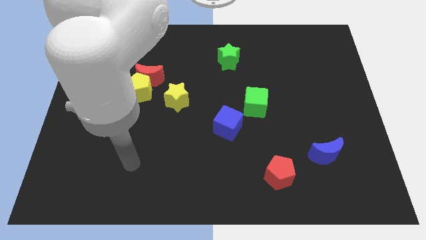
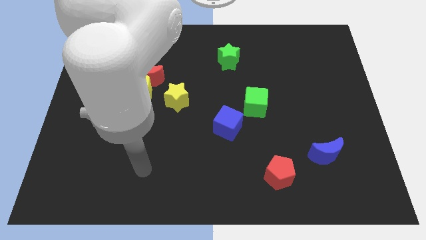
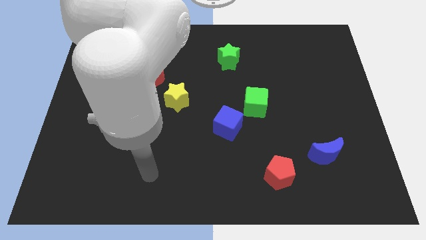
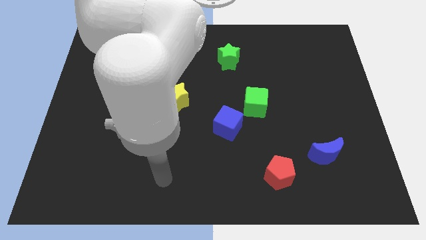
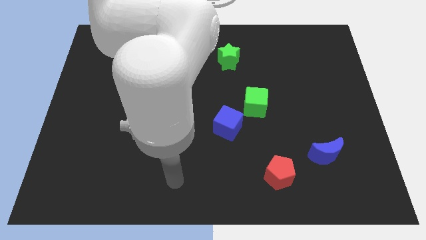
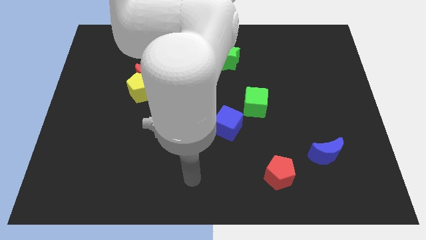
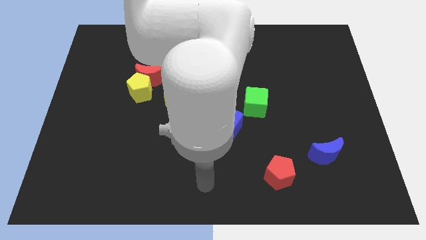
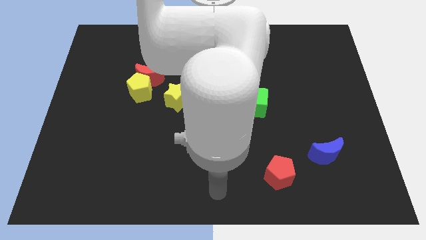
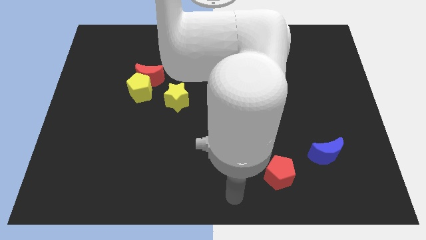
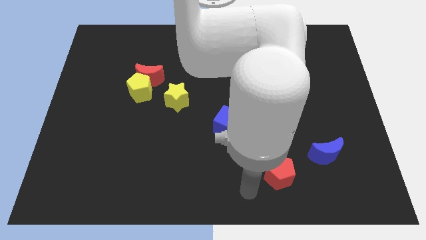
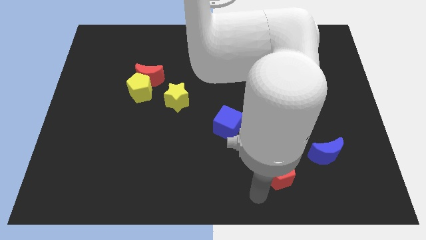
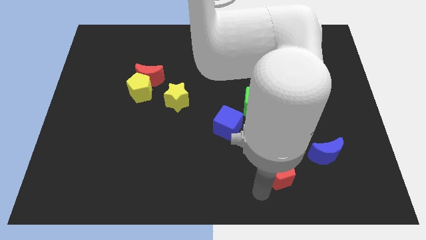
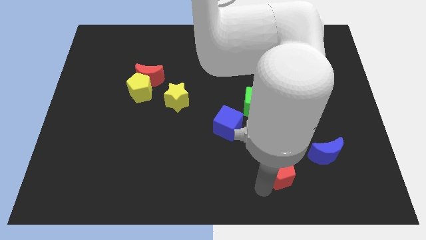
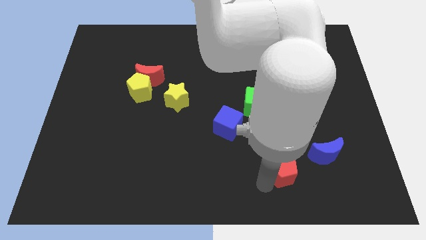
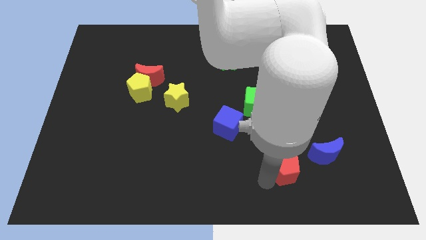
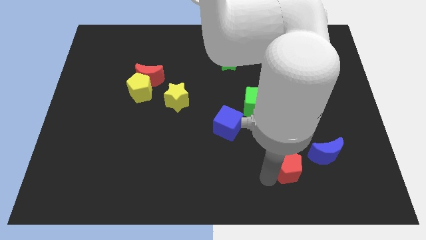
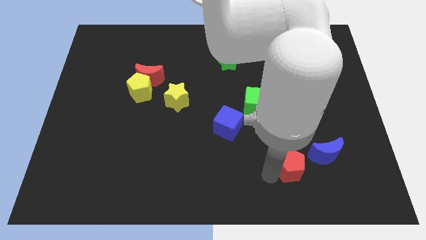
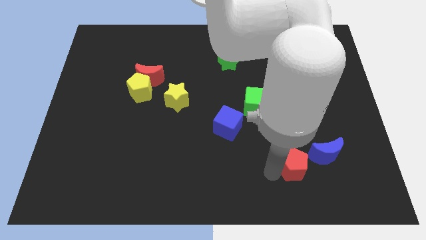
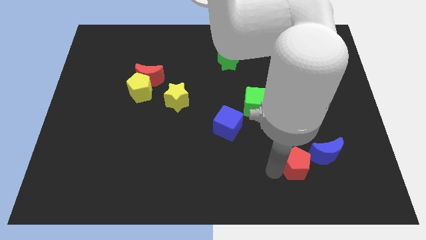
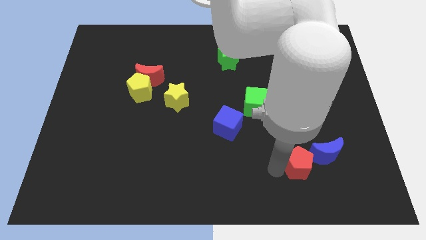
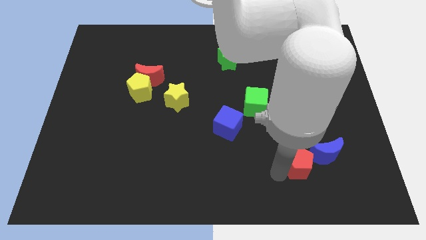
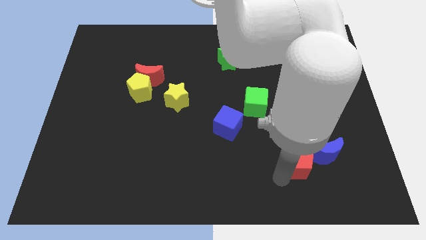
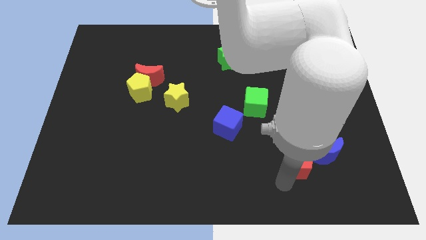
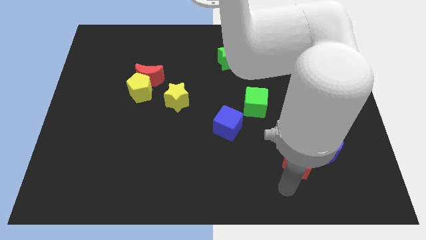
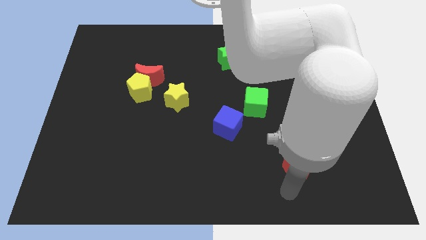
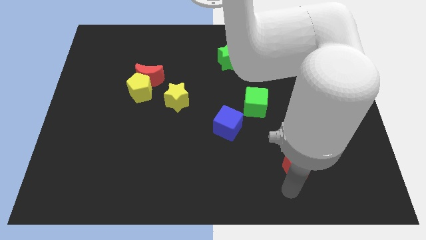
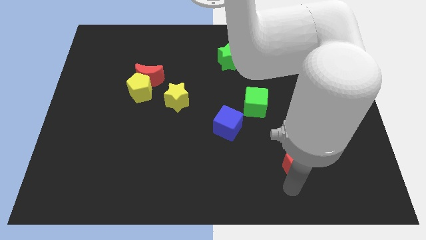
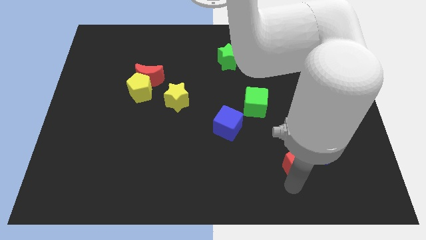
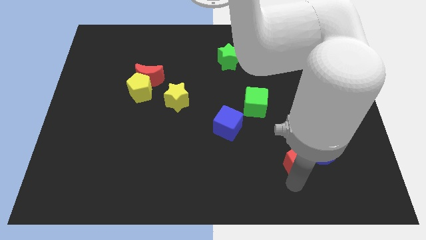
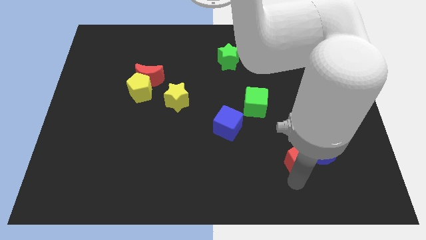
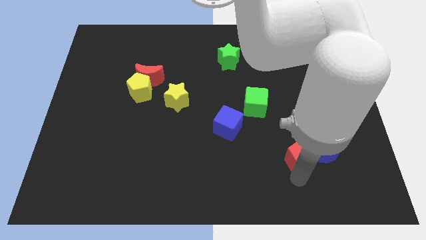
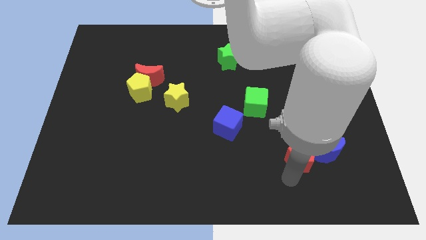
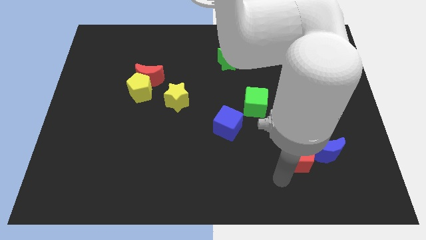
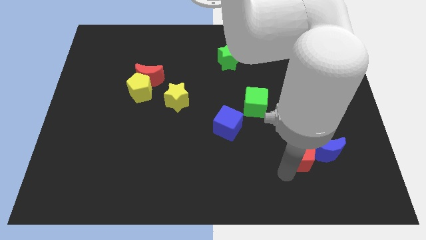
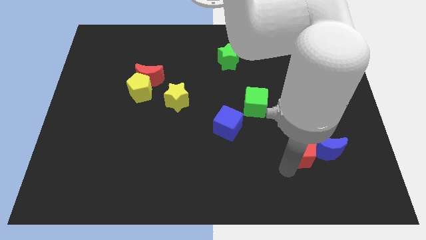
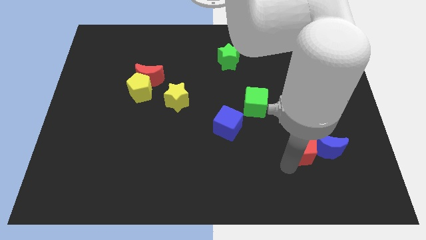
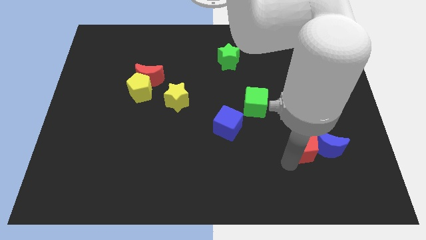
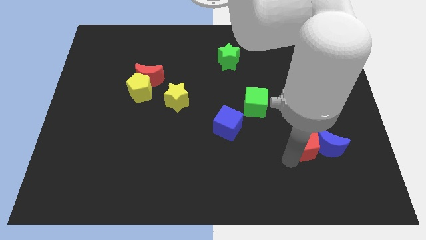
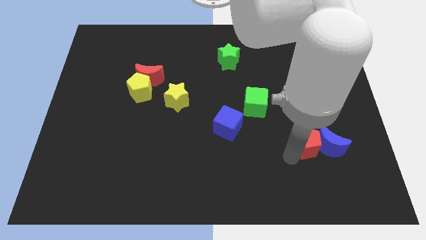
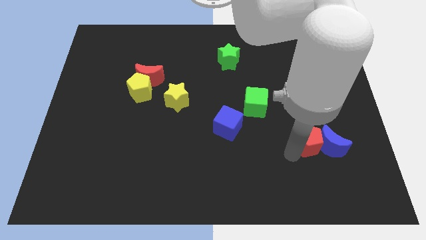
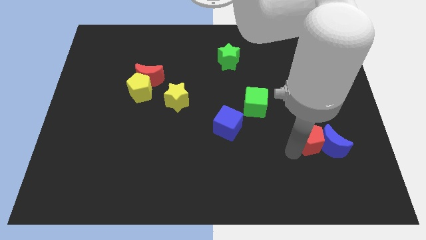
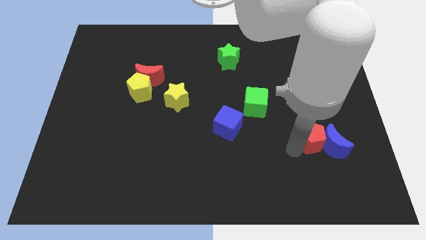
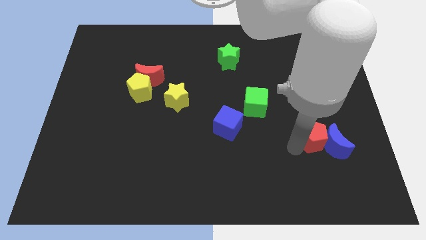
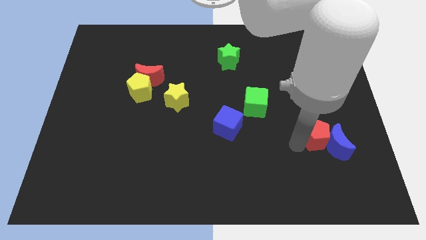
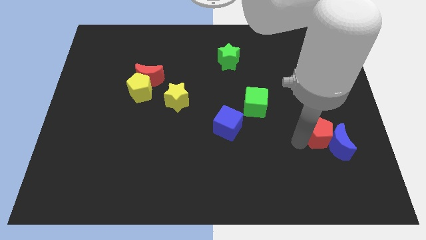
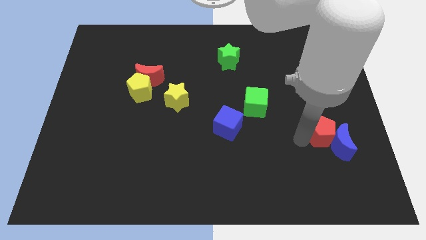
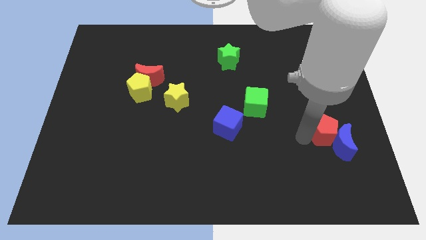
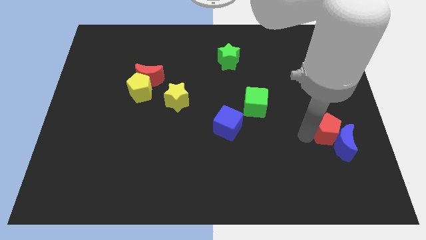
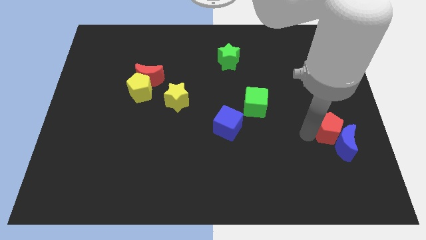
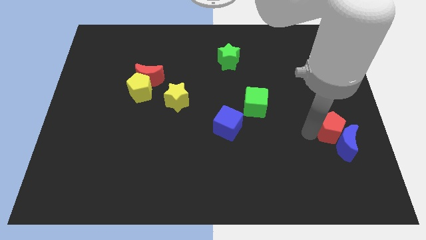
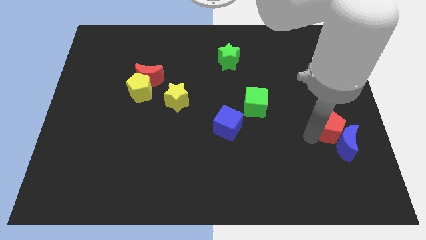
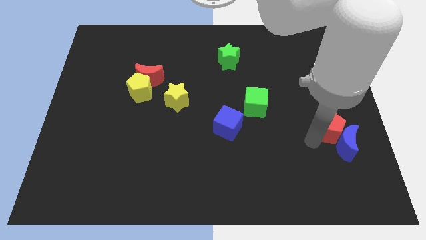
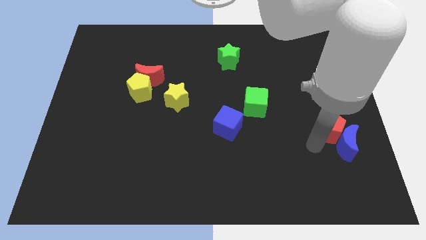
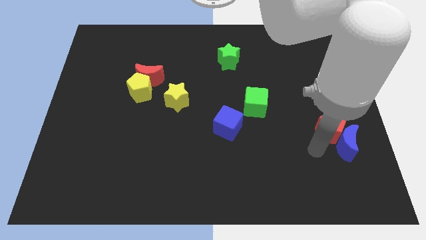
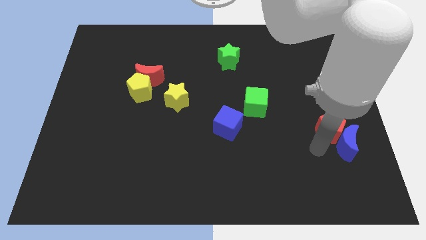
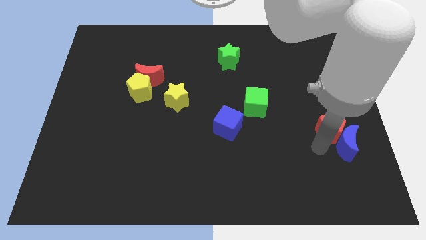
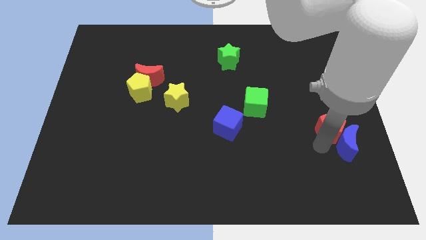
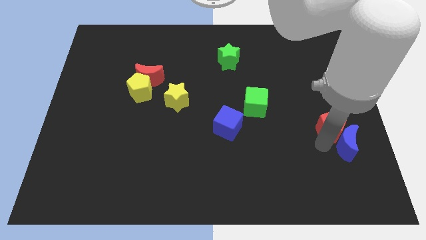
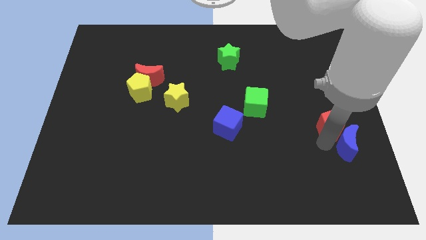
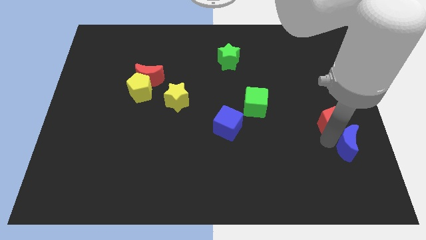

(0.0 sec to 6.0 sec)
slide the red pentagon to the right side

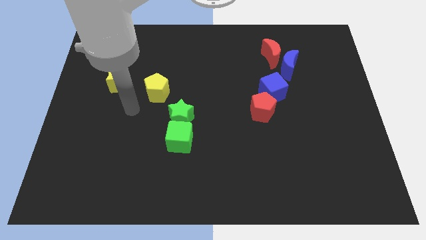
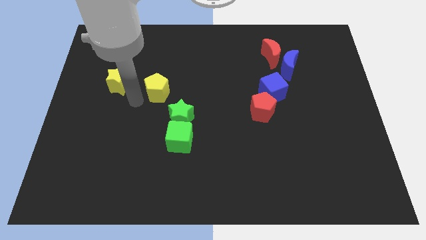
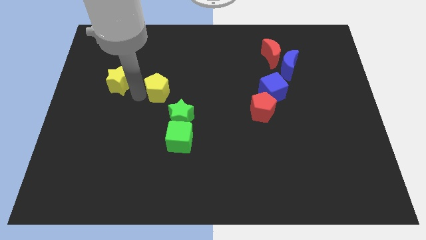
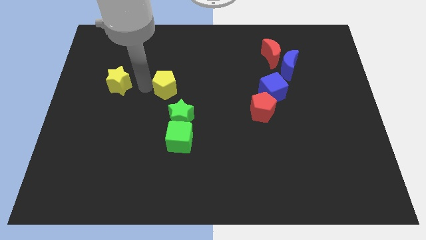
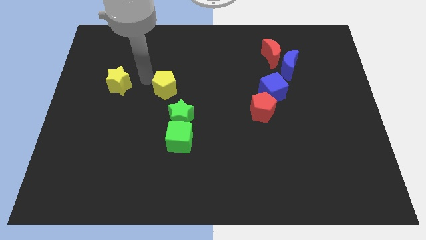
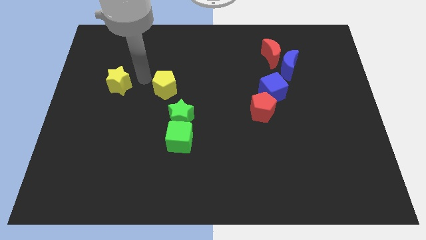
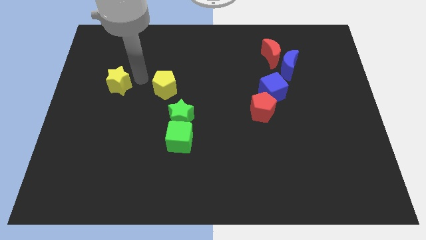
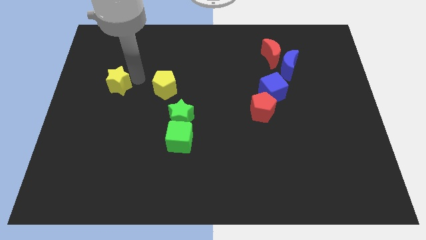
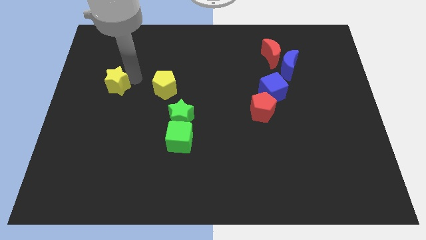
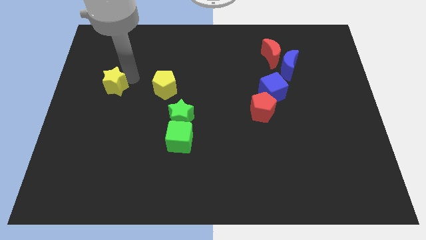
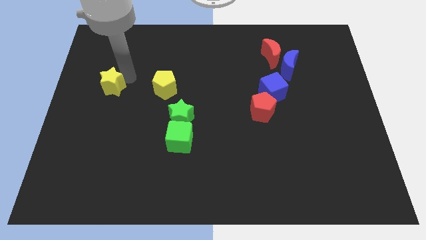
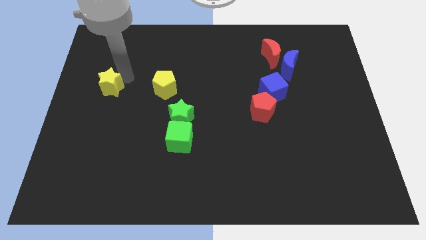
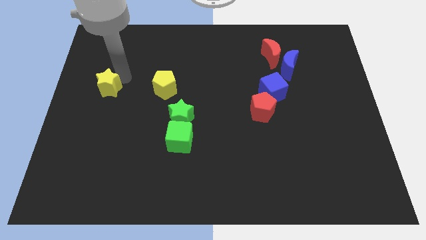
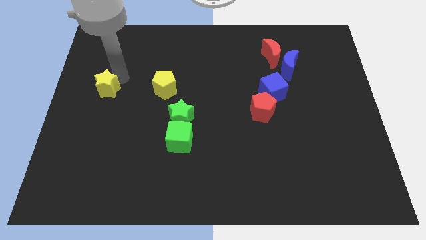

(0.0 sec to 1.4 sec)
move the yellow star to the left side
